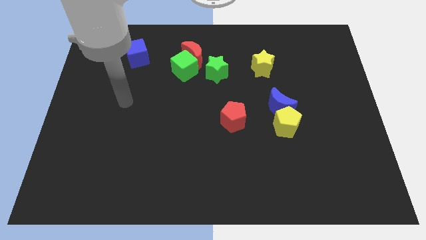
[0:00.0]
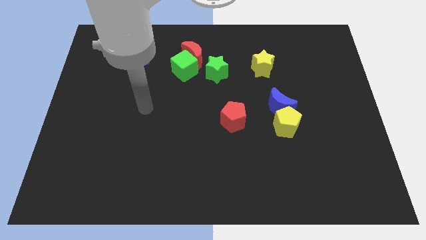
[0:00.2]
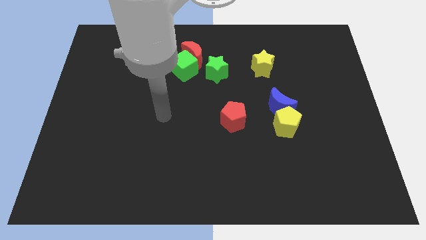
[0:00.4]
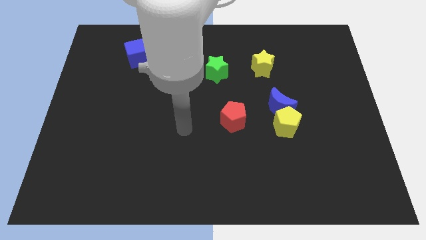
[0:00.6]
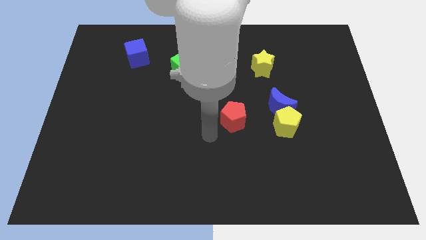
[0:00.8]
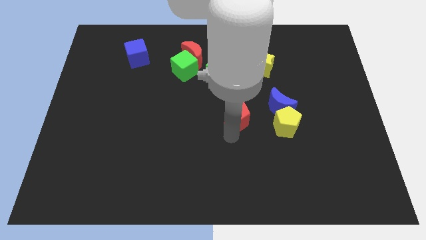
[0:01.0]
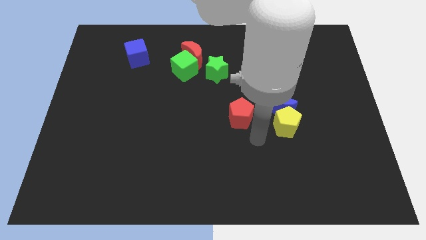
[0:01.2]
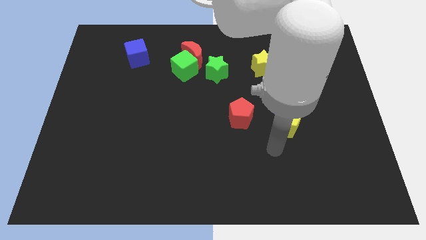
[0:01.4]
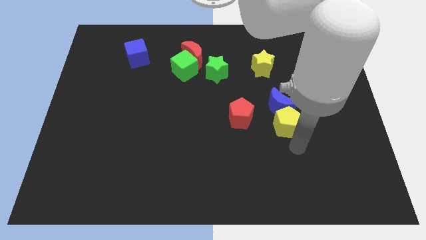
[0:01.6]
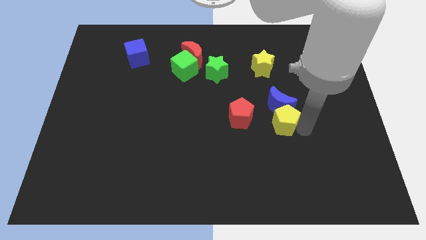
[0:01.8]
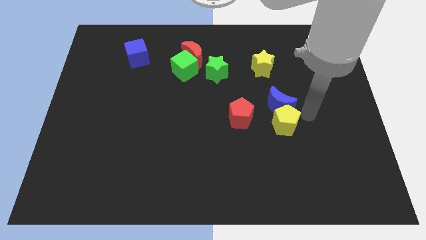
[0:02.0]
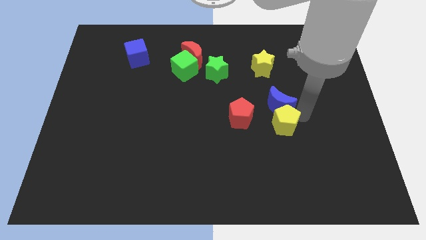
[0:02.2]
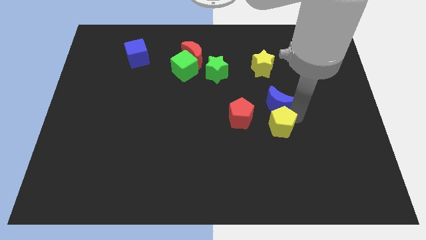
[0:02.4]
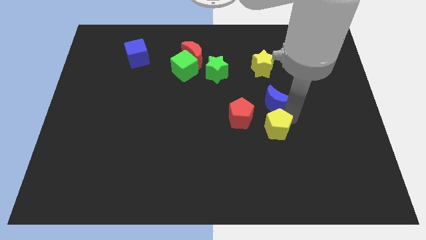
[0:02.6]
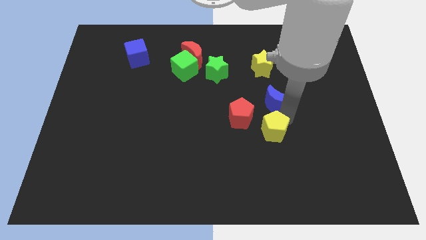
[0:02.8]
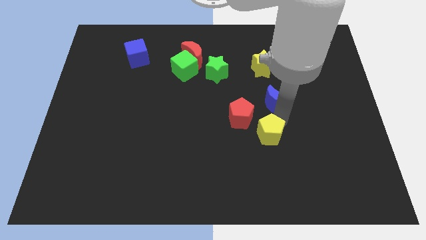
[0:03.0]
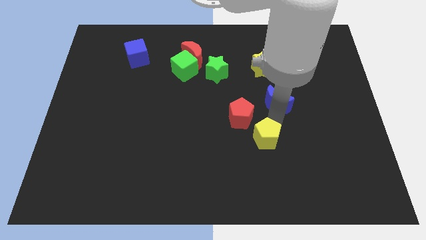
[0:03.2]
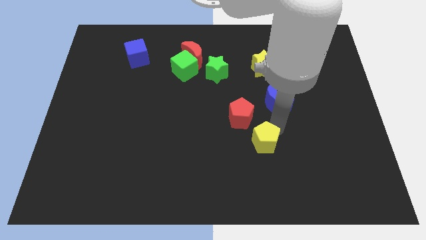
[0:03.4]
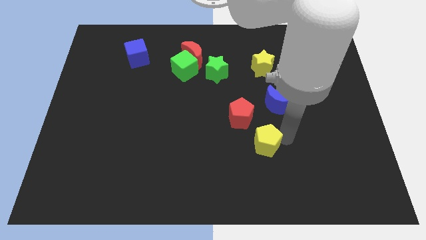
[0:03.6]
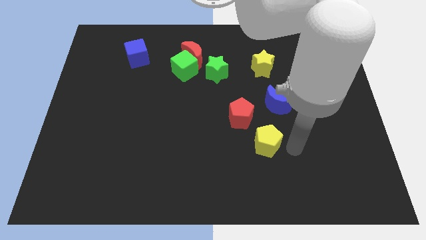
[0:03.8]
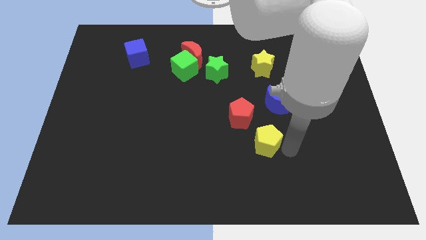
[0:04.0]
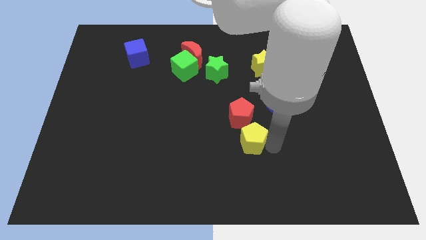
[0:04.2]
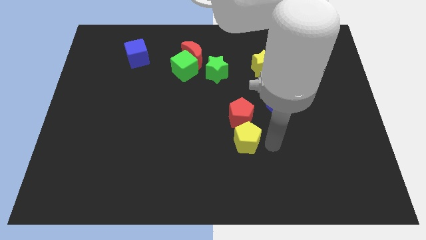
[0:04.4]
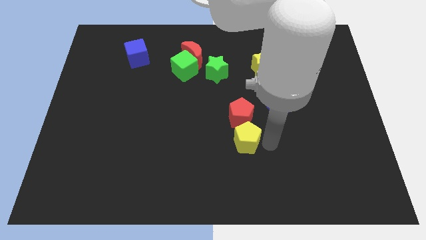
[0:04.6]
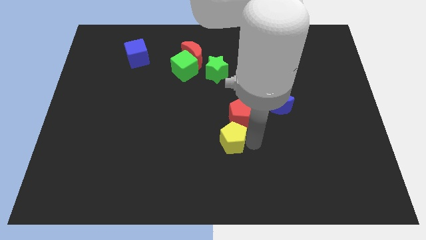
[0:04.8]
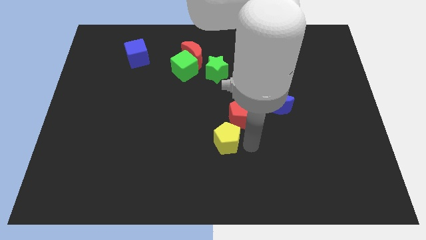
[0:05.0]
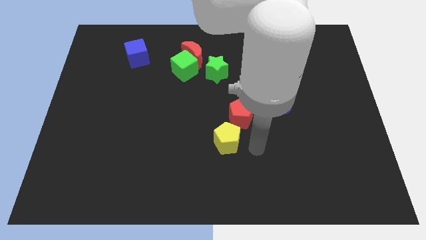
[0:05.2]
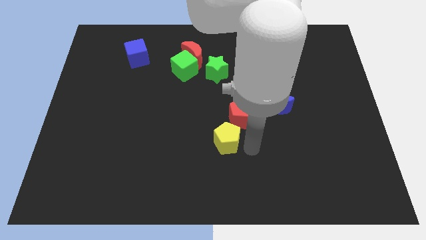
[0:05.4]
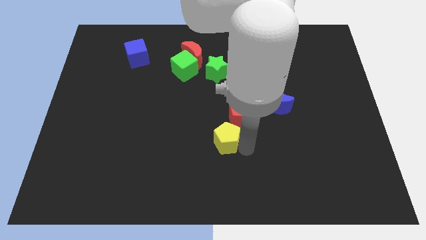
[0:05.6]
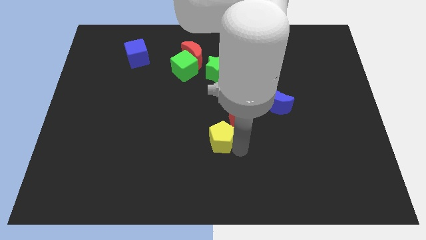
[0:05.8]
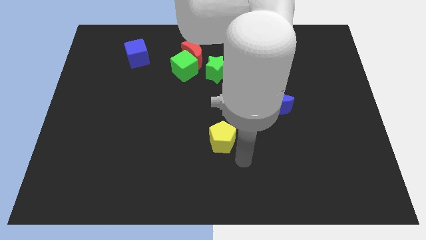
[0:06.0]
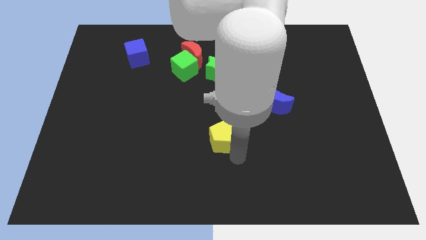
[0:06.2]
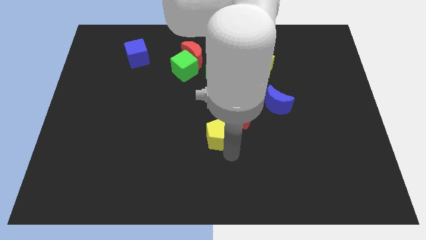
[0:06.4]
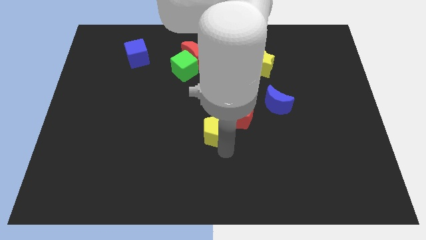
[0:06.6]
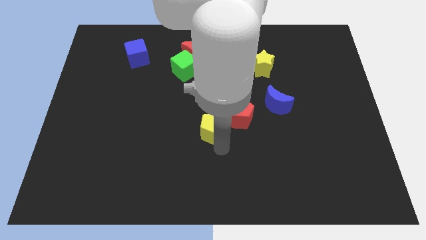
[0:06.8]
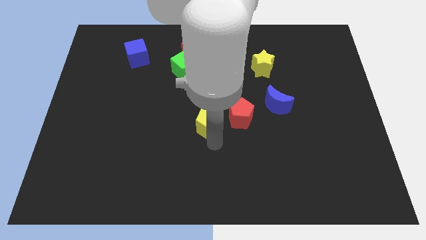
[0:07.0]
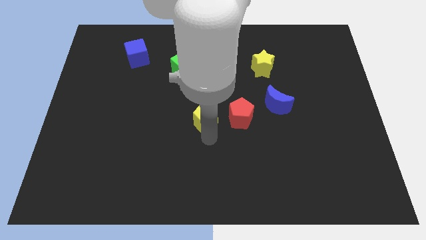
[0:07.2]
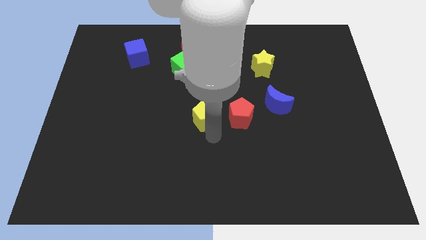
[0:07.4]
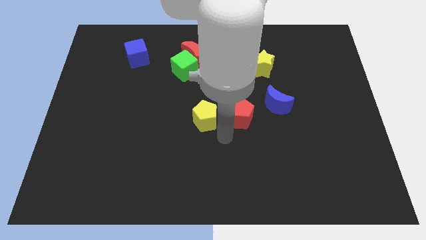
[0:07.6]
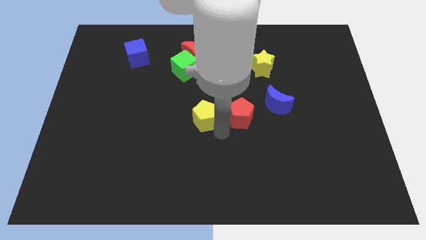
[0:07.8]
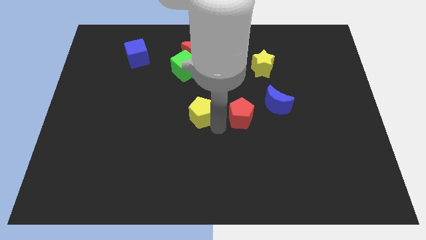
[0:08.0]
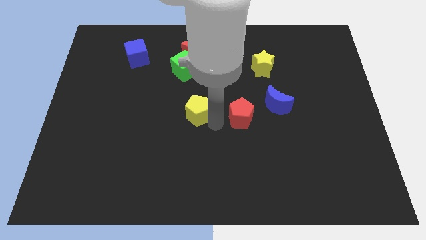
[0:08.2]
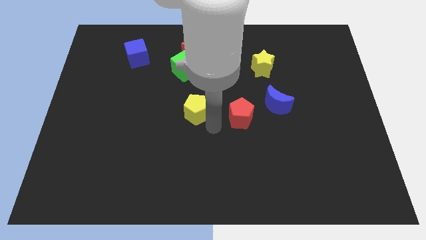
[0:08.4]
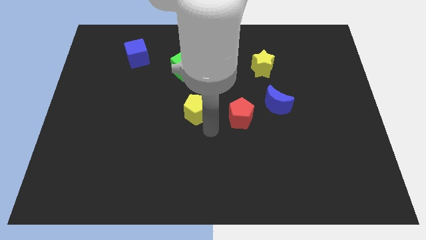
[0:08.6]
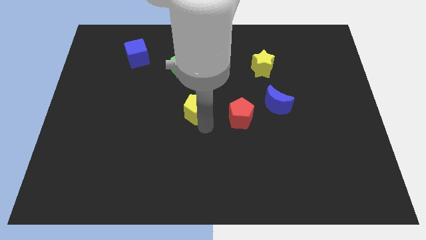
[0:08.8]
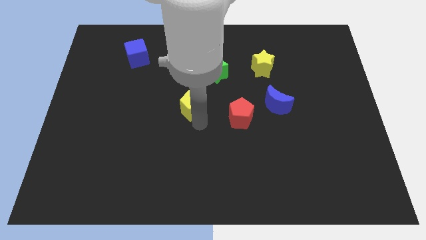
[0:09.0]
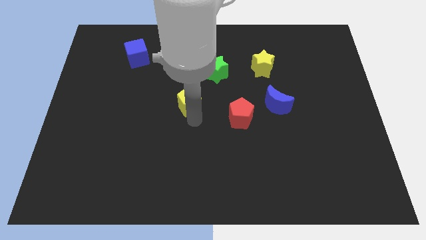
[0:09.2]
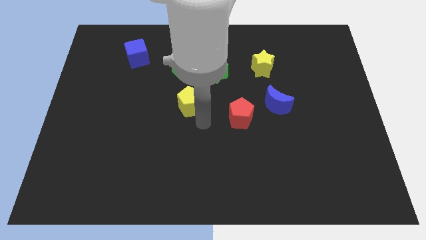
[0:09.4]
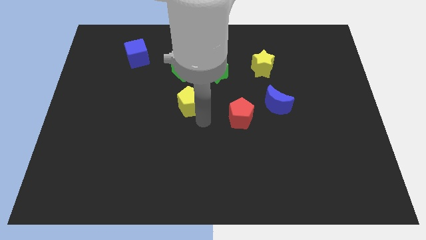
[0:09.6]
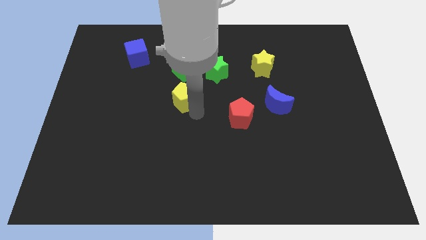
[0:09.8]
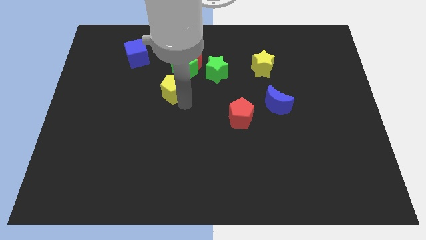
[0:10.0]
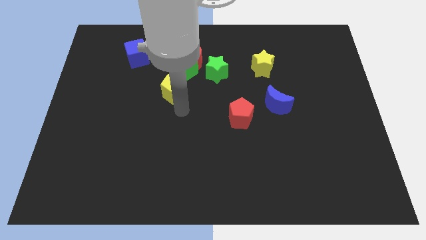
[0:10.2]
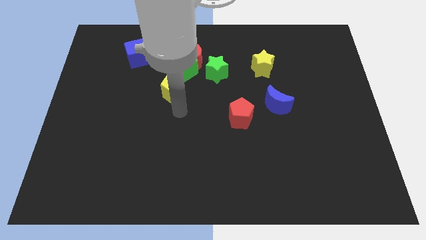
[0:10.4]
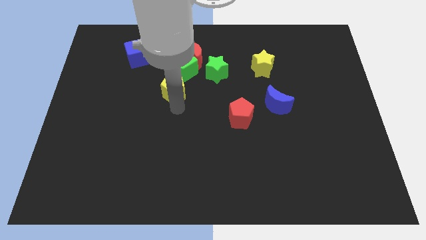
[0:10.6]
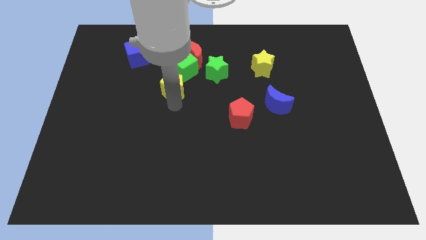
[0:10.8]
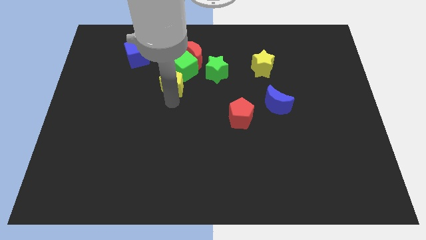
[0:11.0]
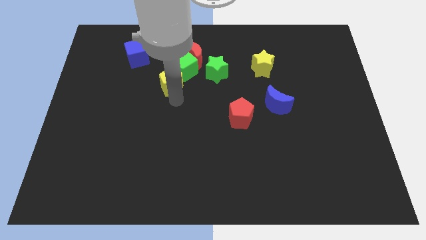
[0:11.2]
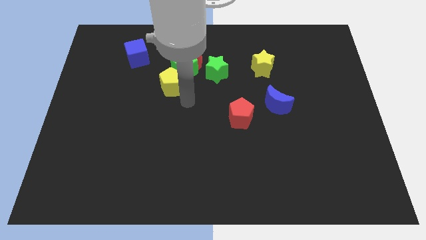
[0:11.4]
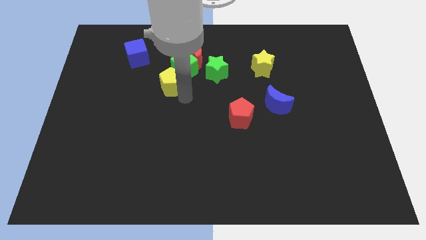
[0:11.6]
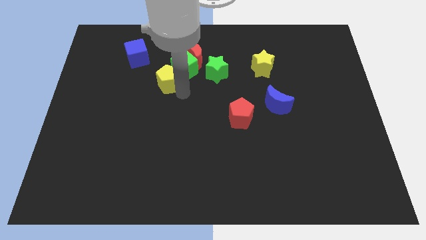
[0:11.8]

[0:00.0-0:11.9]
slide the yellow pentagon to the bottom right of the blue cube

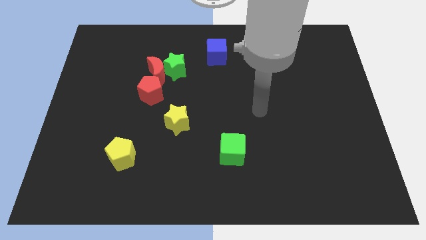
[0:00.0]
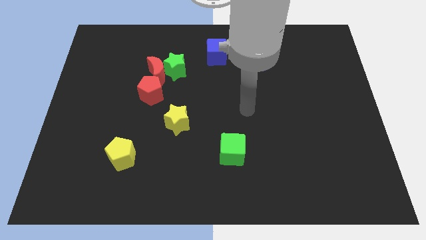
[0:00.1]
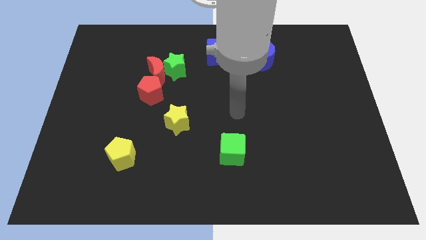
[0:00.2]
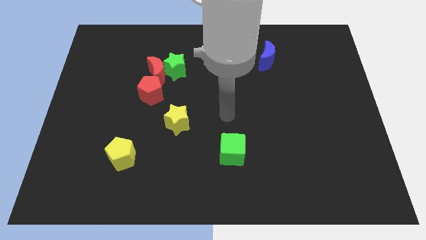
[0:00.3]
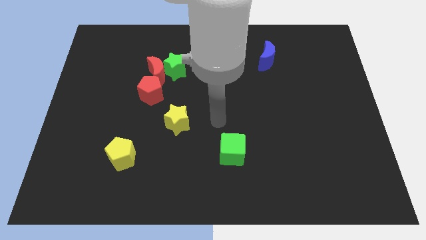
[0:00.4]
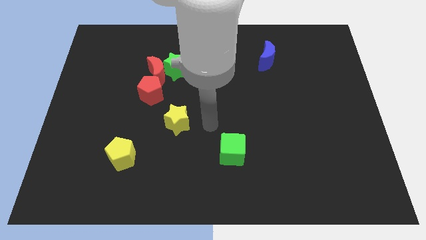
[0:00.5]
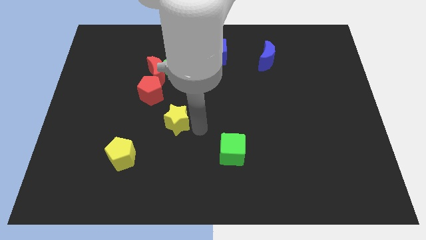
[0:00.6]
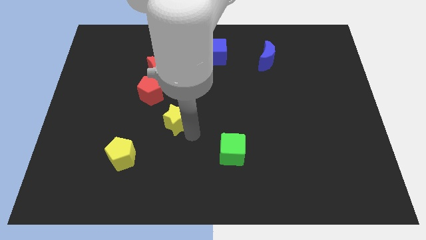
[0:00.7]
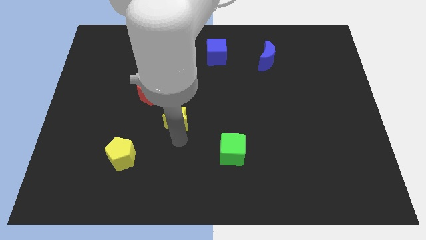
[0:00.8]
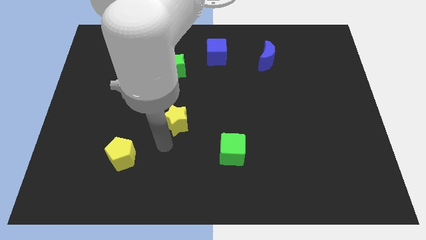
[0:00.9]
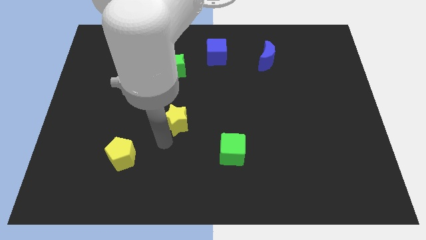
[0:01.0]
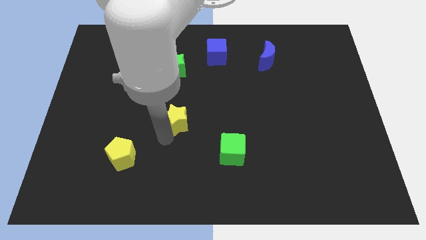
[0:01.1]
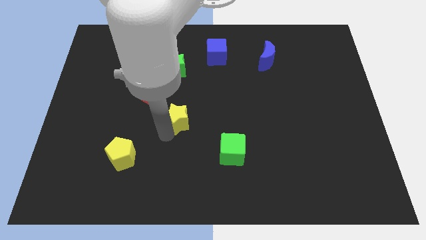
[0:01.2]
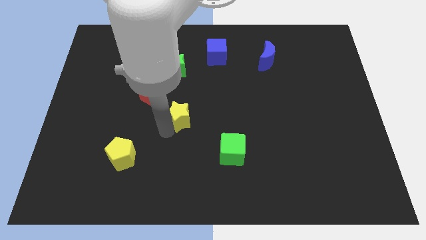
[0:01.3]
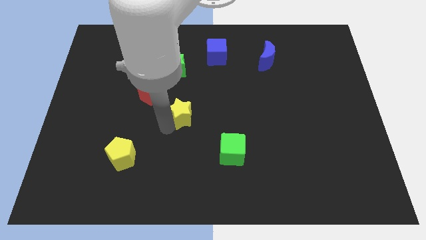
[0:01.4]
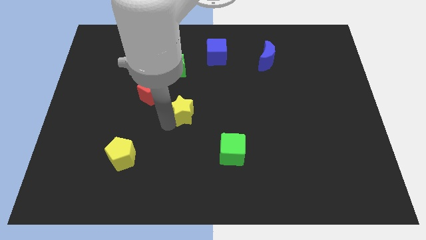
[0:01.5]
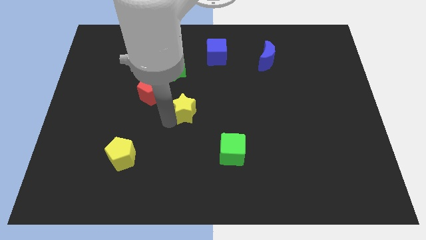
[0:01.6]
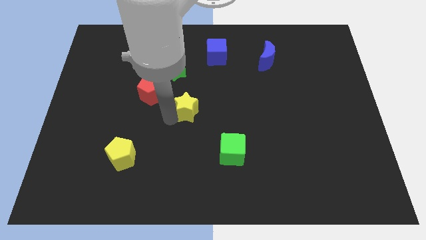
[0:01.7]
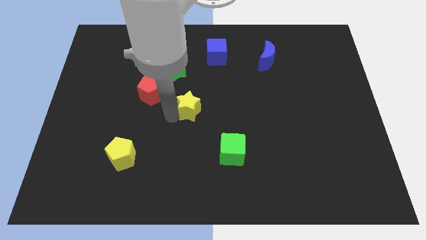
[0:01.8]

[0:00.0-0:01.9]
push the yellow star to the right side of the red pentagon
